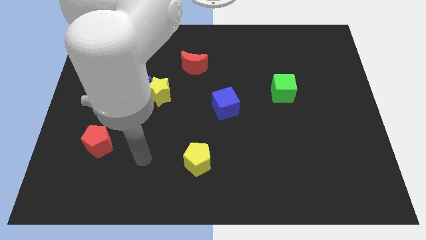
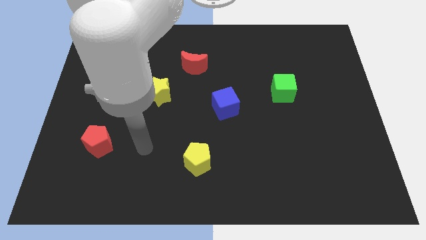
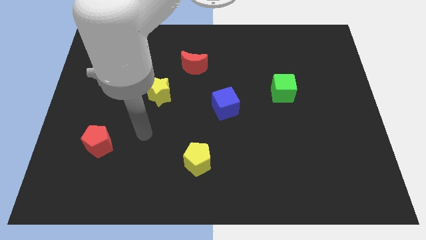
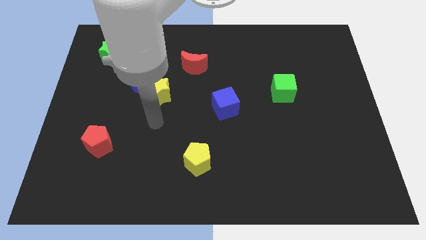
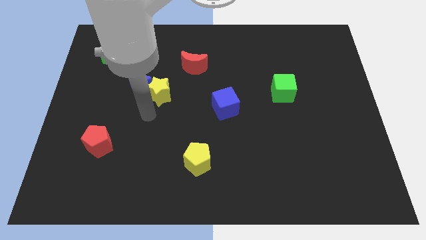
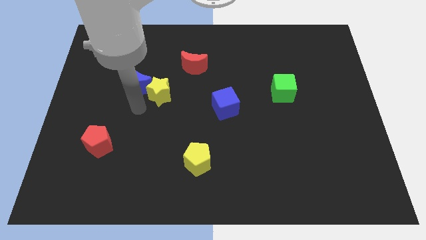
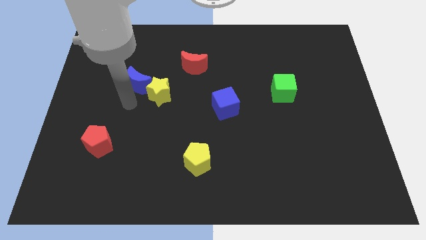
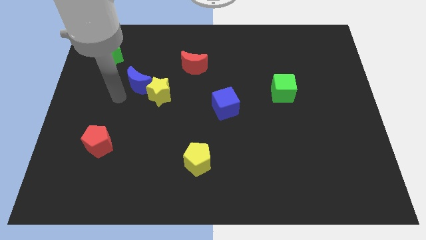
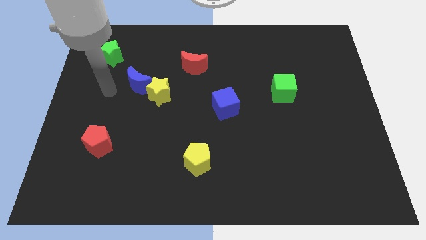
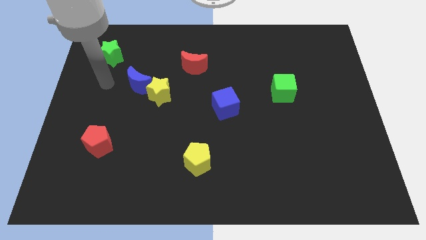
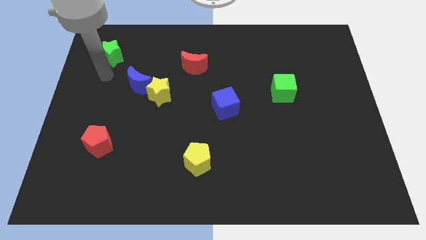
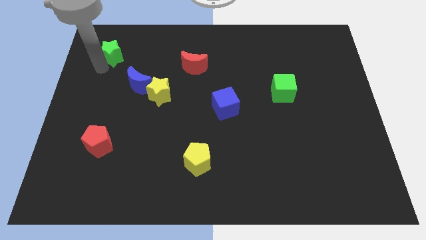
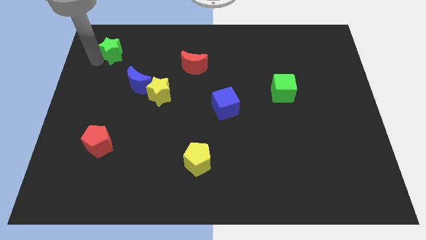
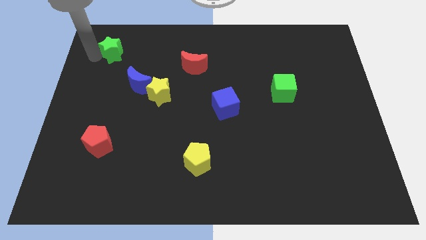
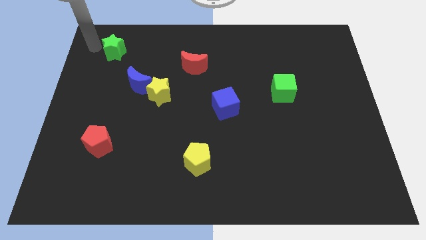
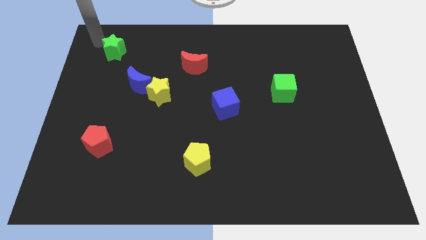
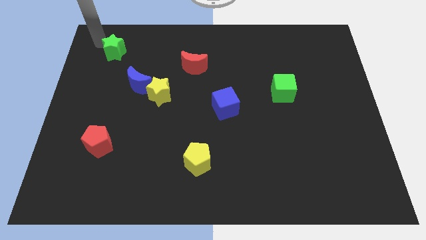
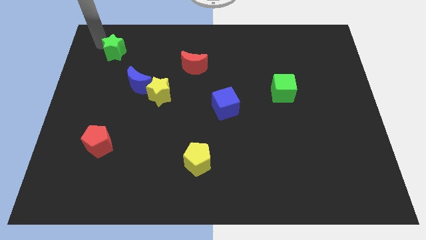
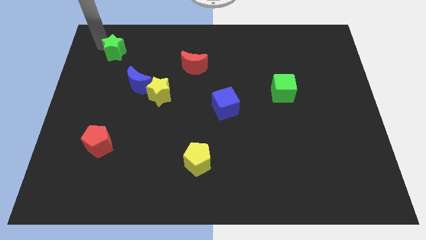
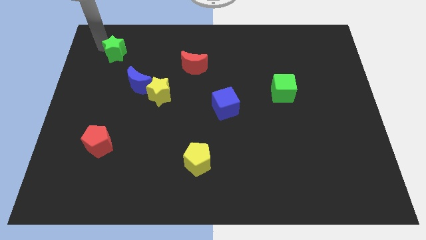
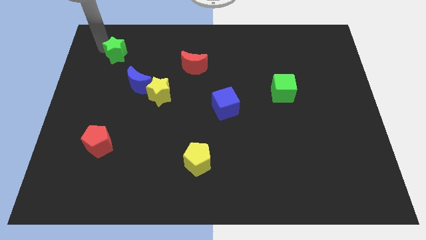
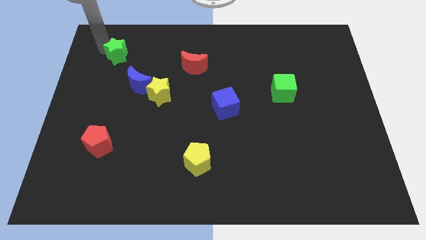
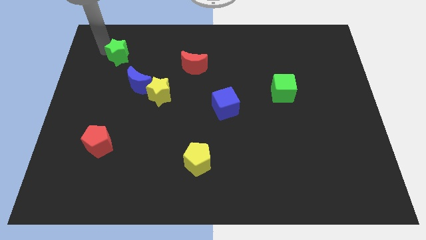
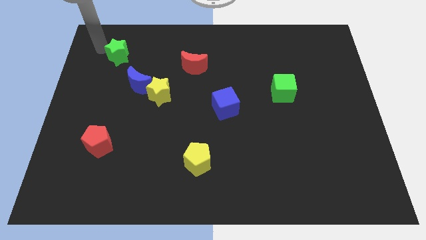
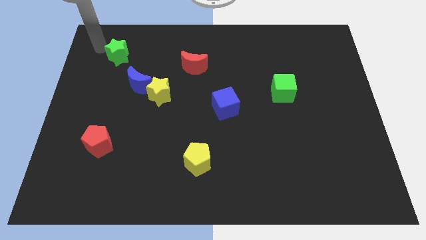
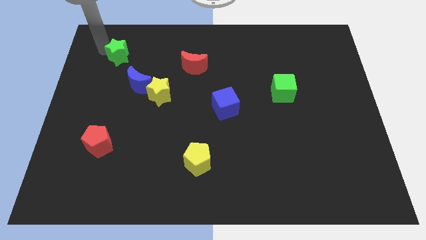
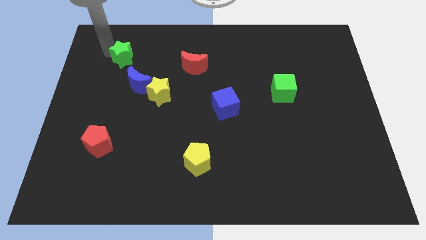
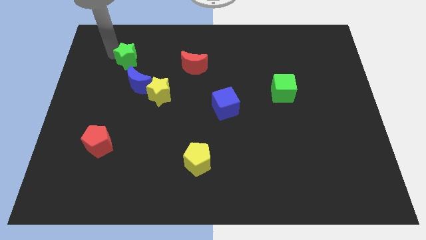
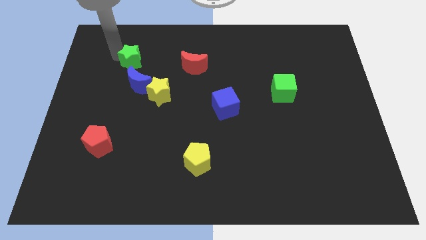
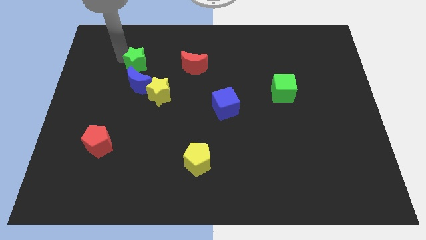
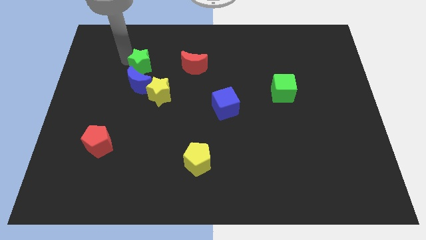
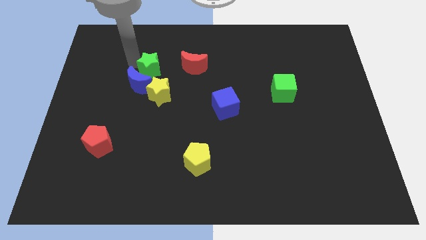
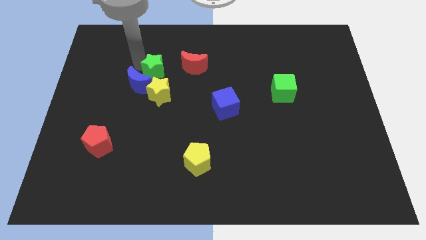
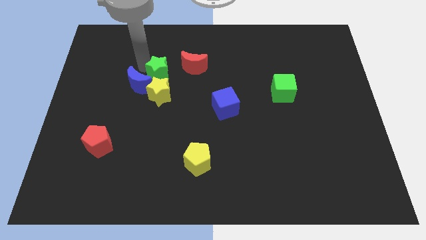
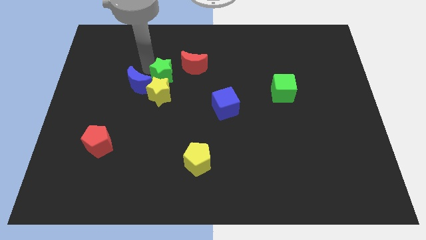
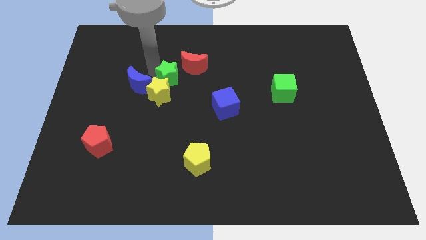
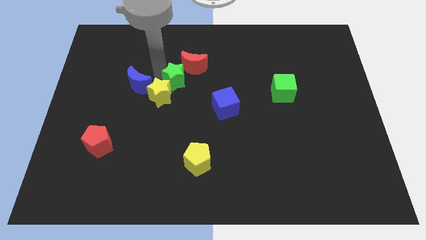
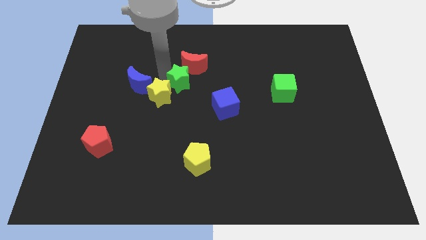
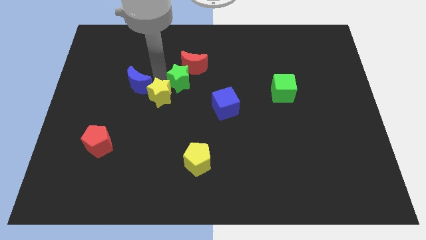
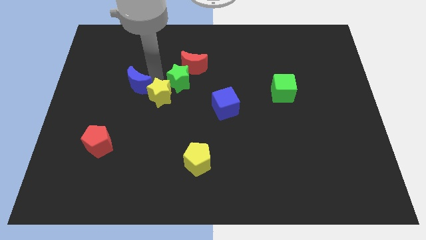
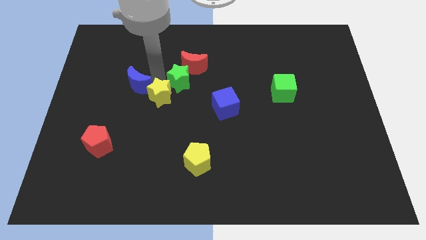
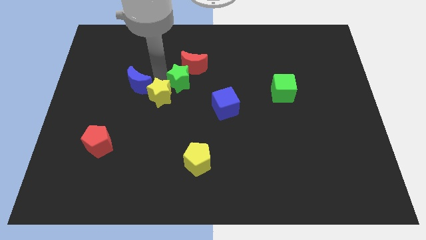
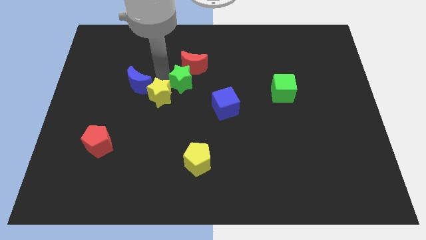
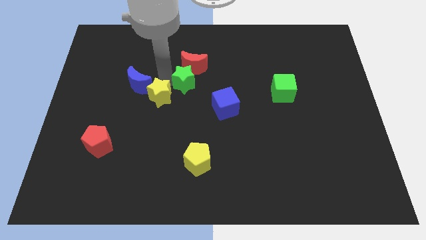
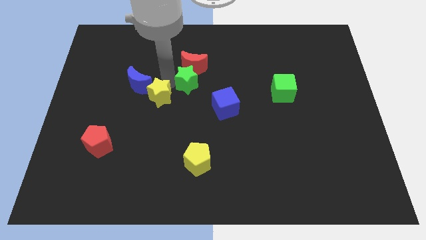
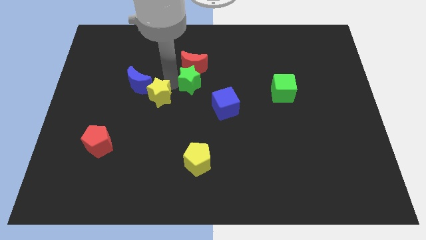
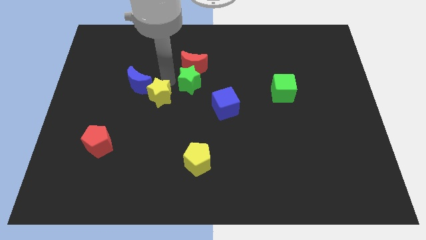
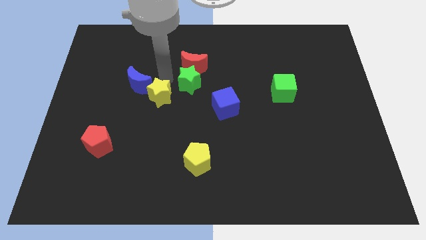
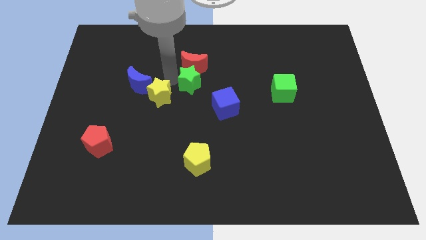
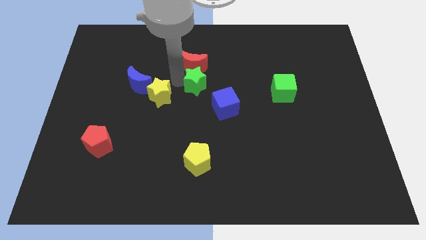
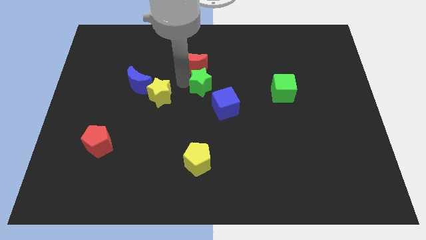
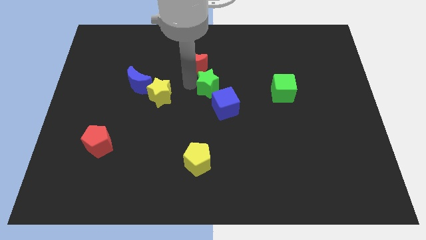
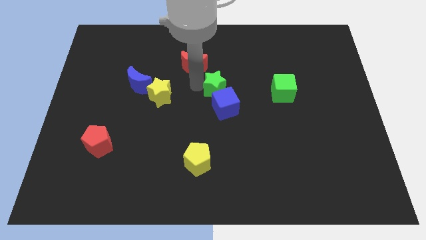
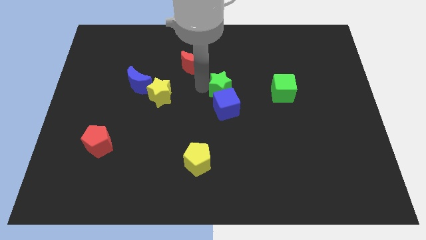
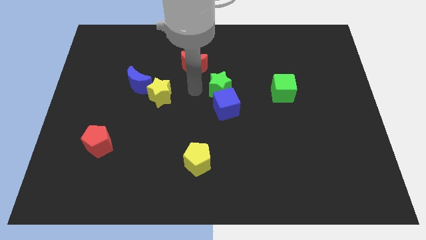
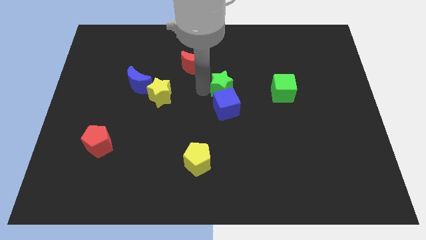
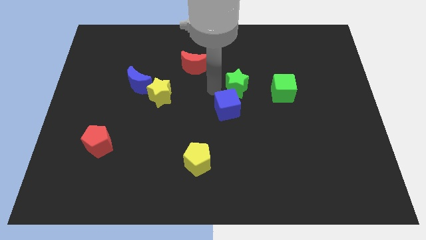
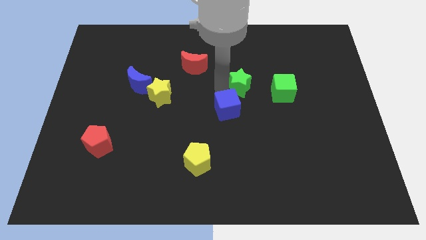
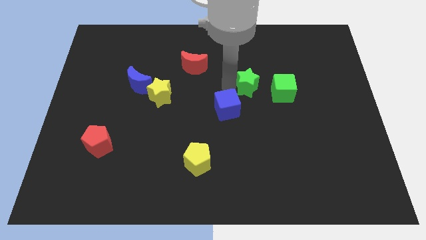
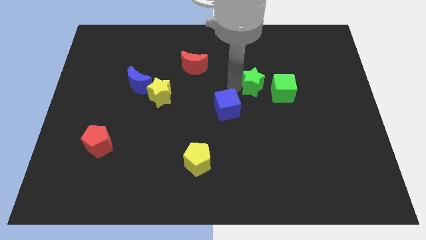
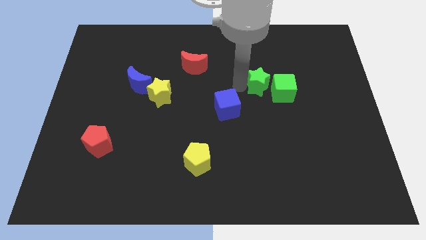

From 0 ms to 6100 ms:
move the green star towards the green cube

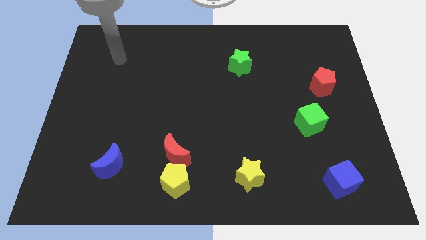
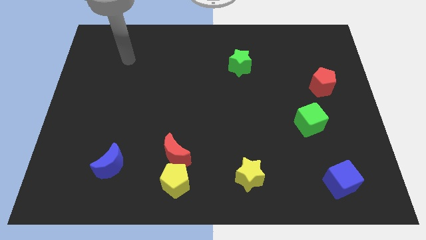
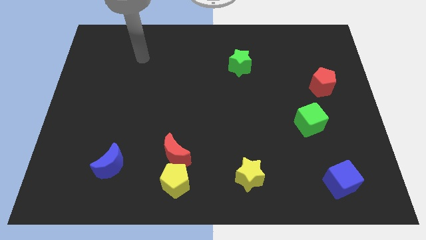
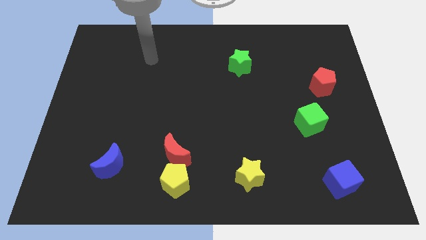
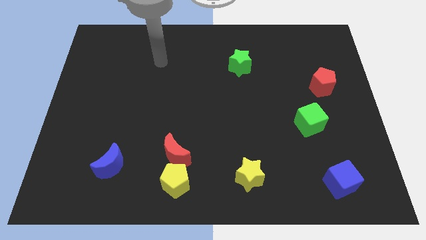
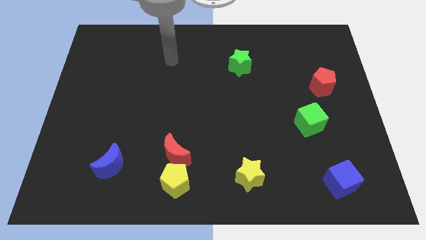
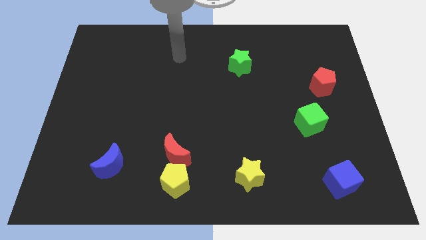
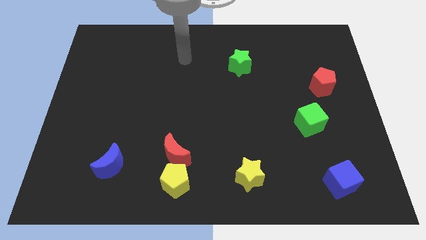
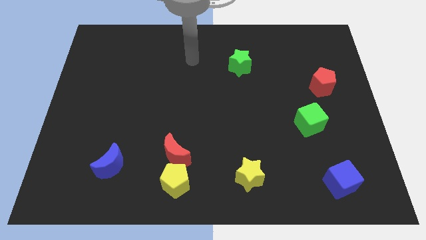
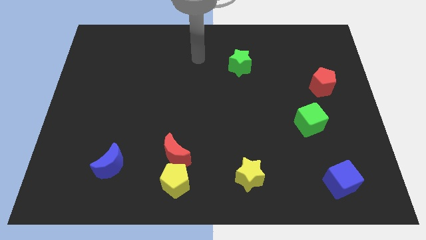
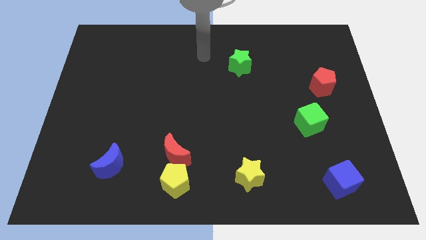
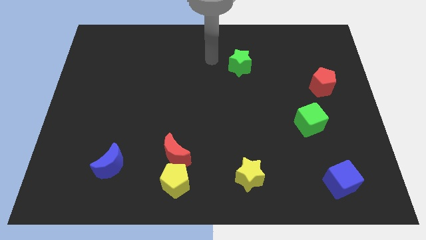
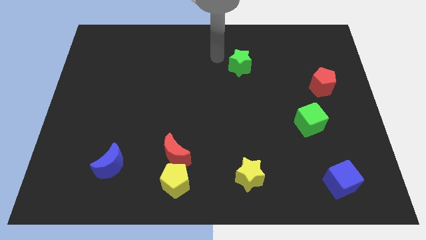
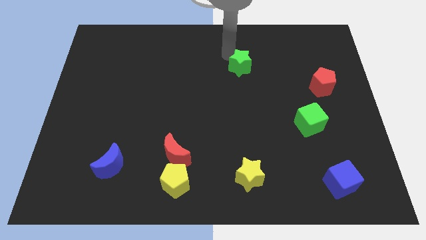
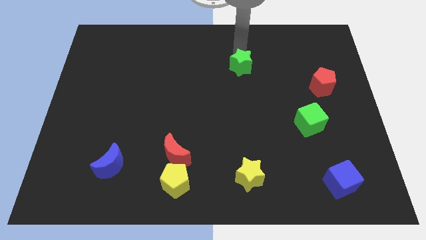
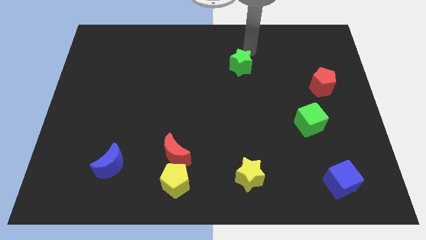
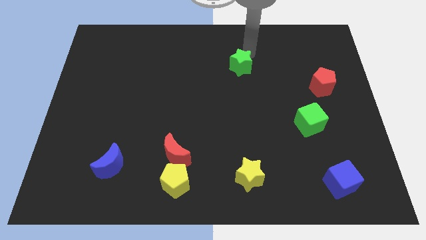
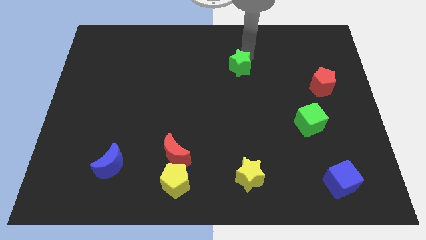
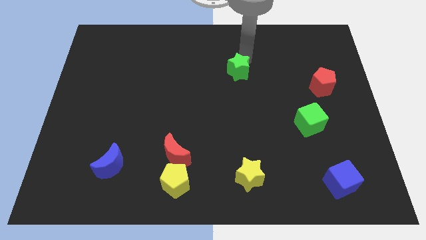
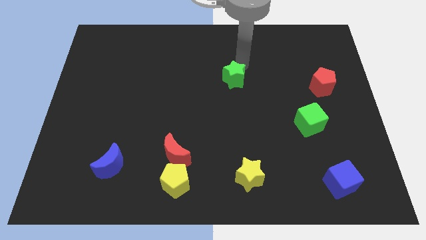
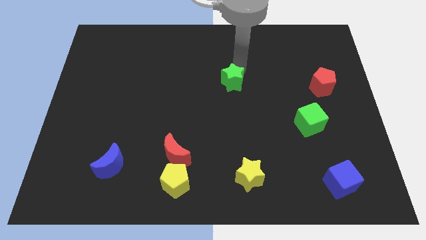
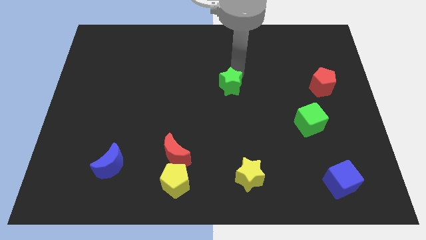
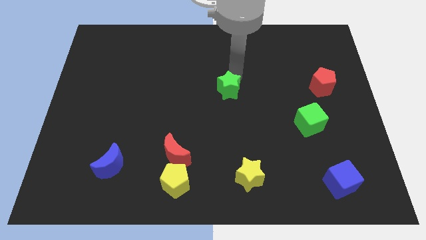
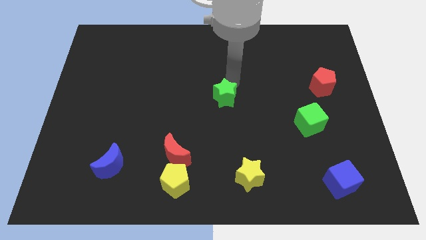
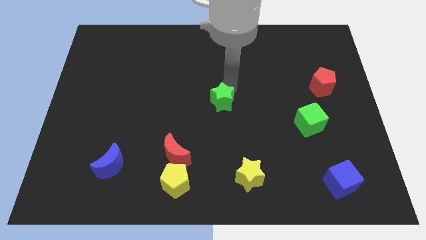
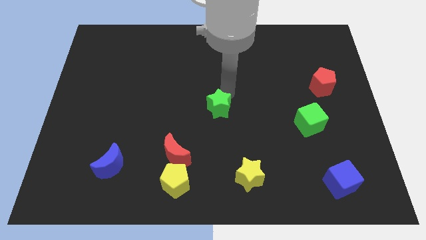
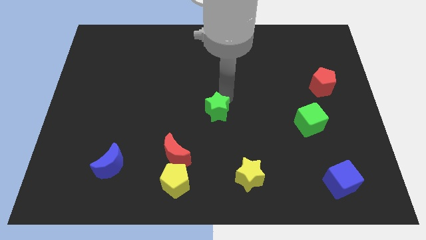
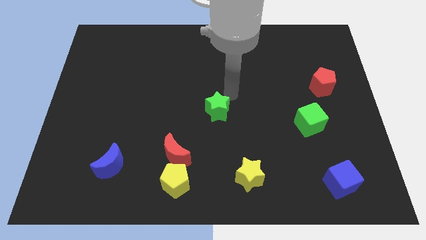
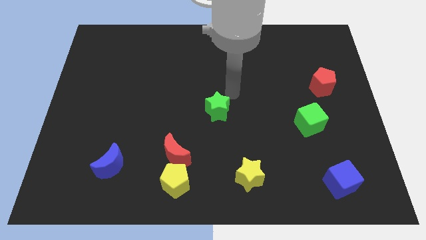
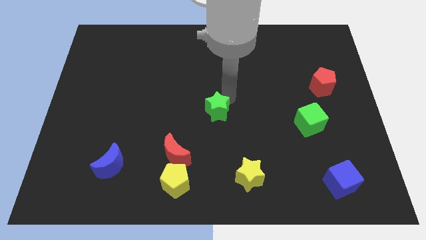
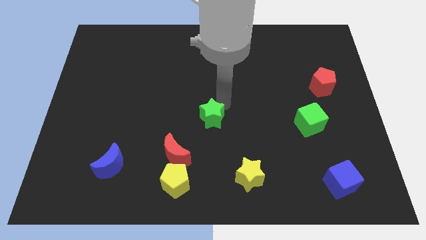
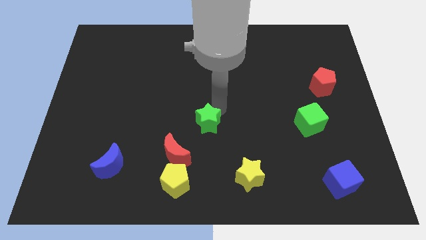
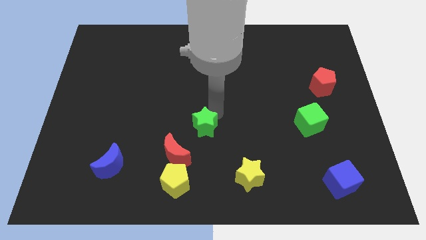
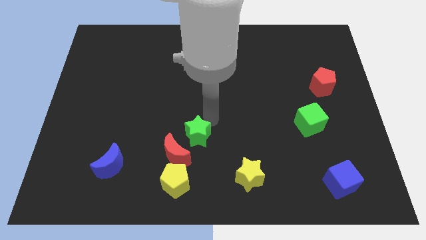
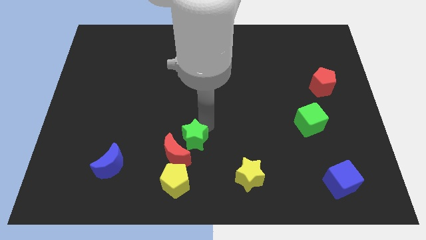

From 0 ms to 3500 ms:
put the green star close to the red moon
